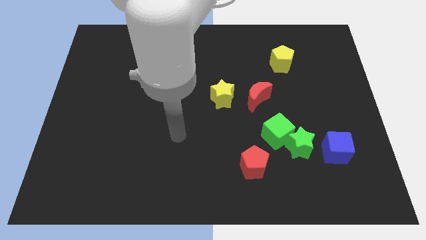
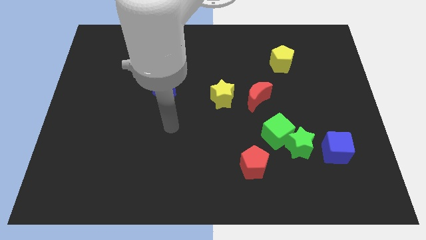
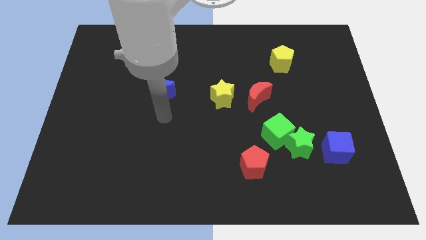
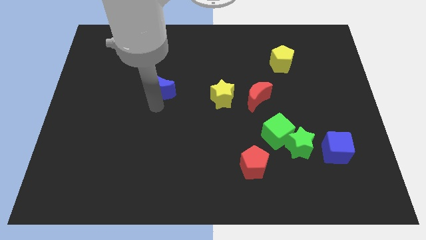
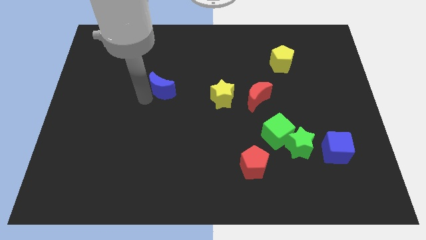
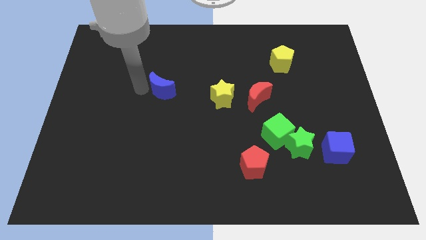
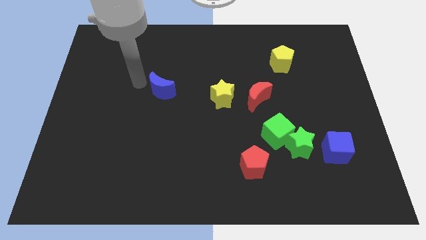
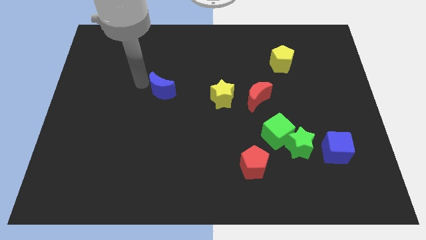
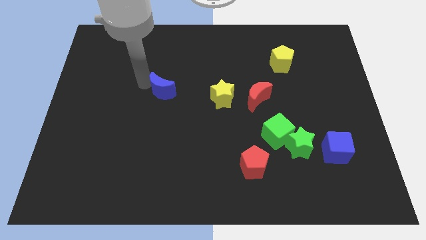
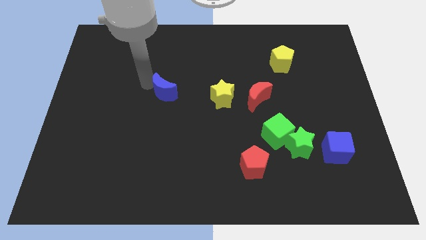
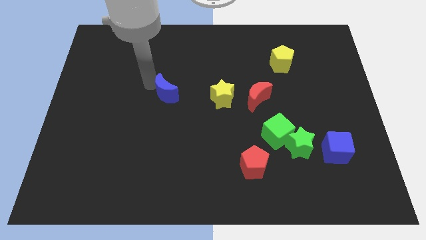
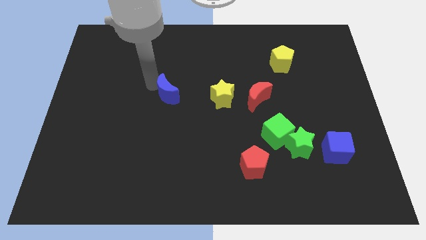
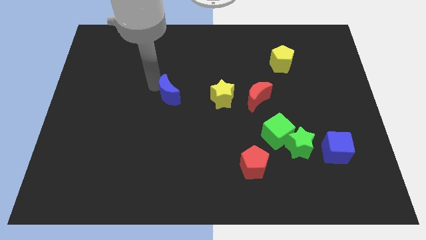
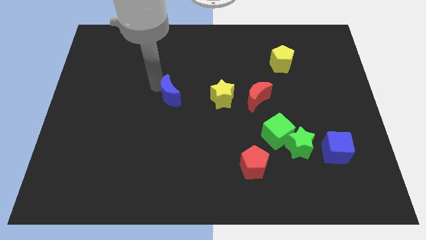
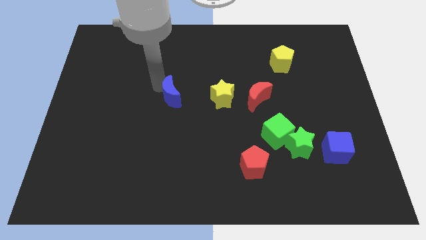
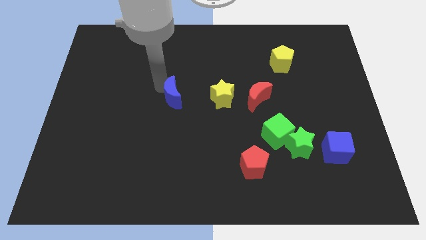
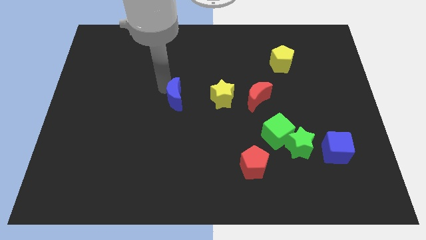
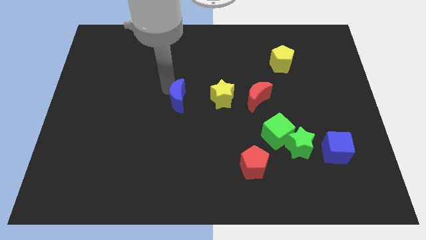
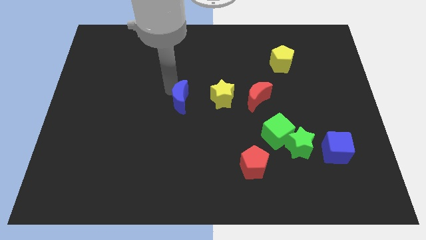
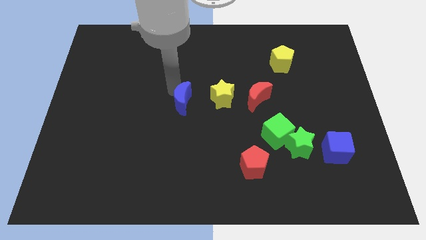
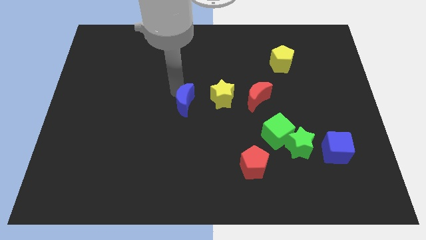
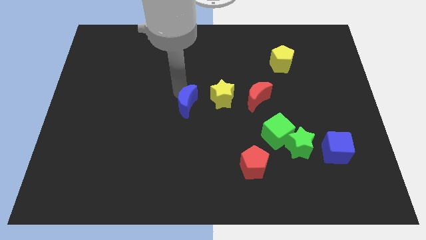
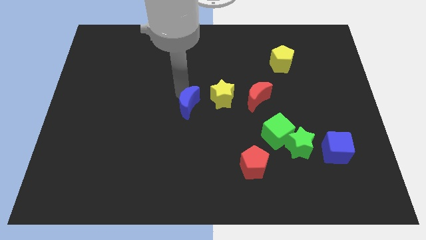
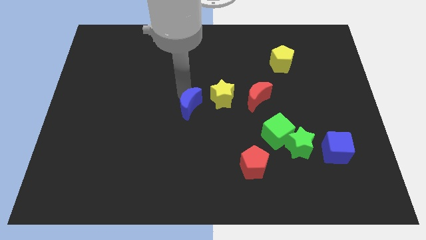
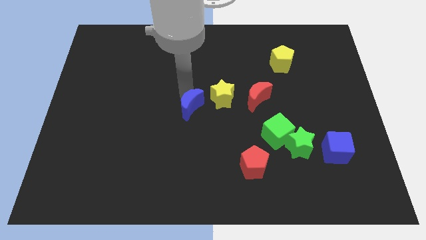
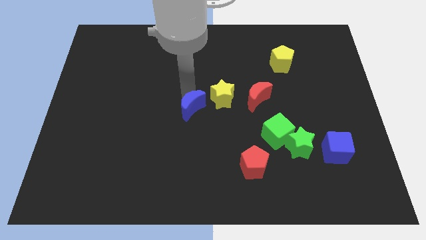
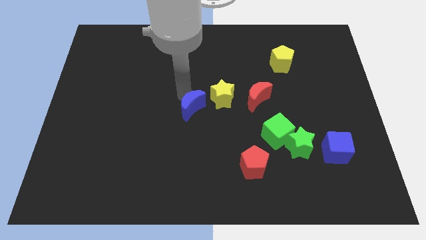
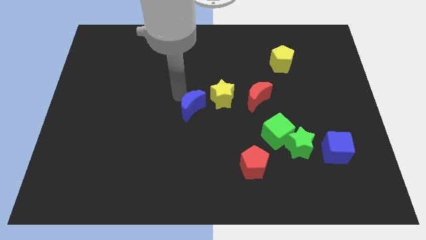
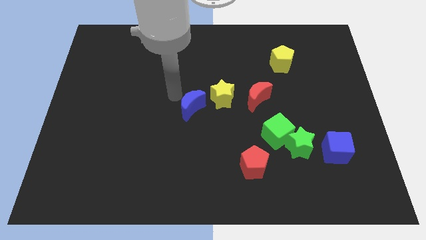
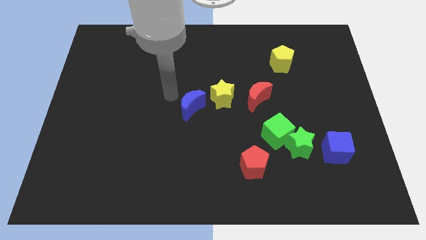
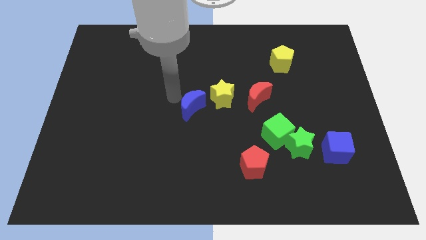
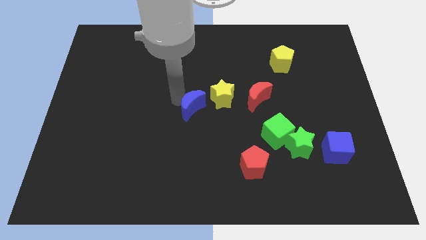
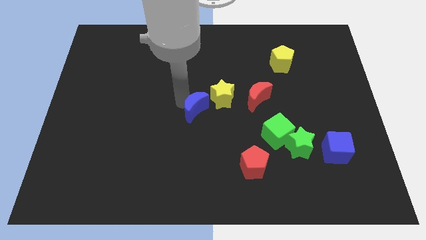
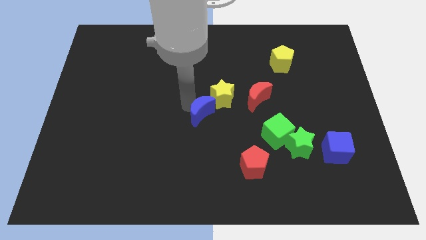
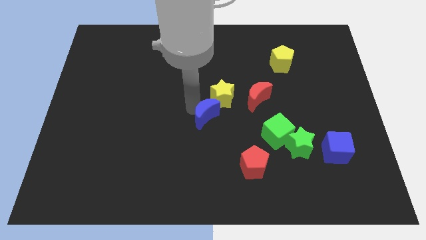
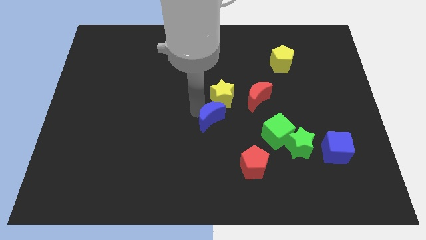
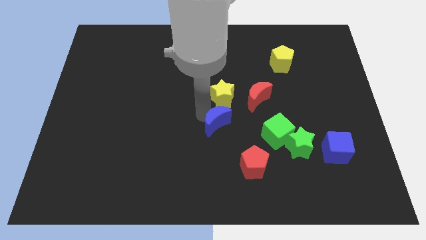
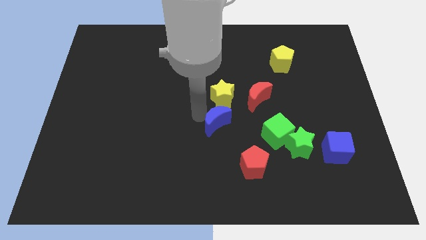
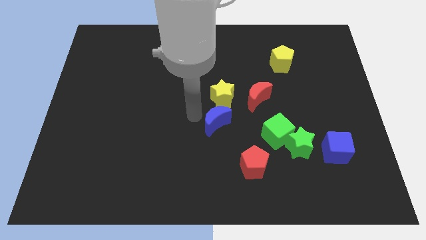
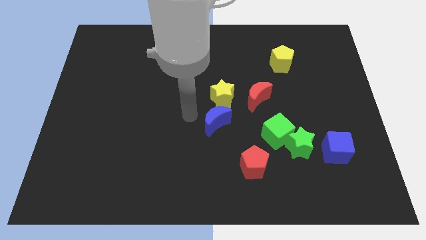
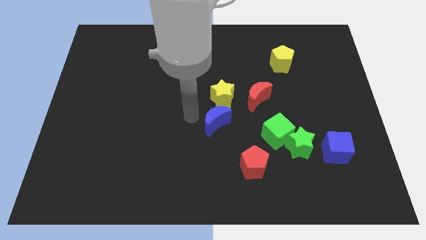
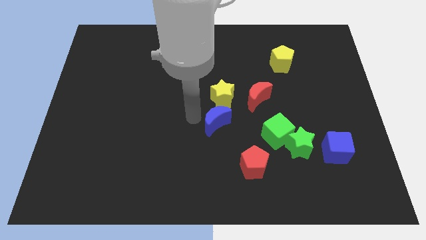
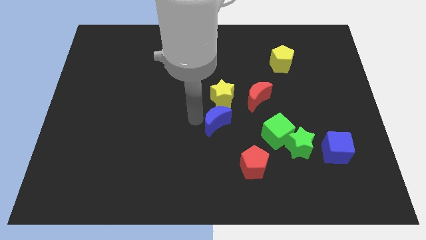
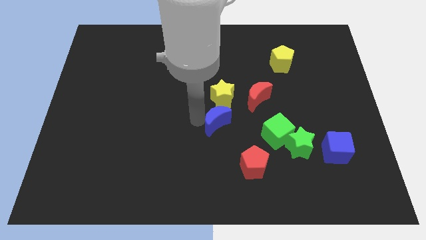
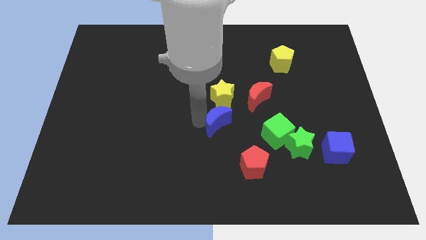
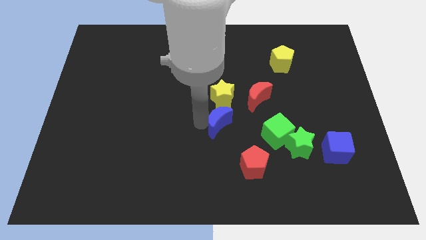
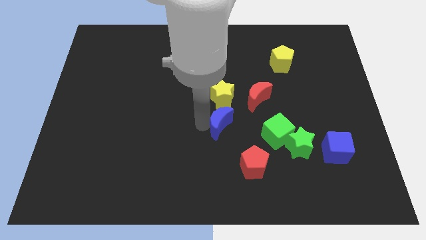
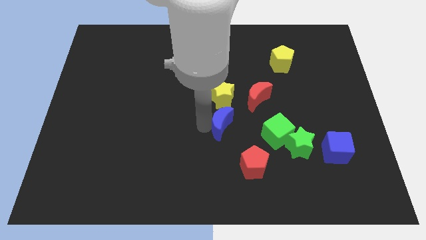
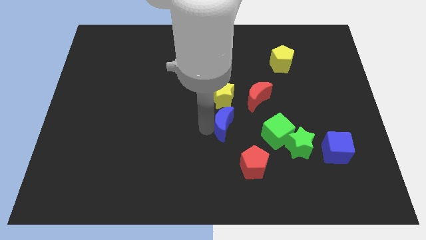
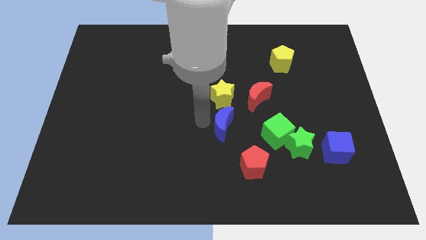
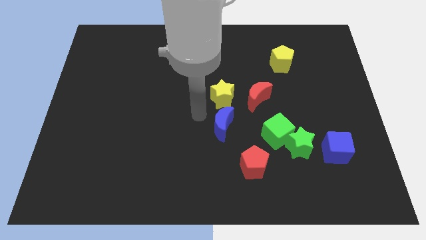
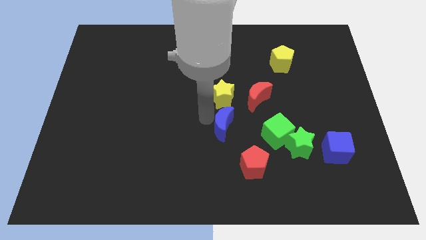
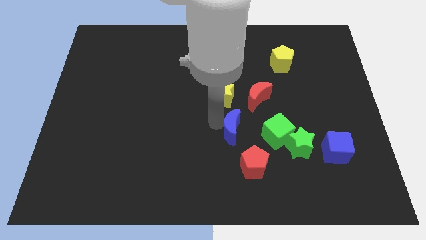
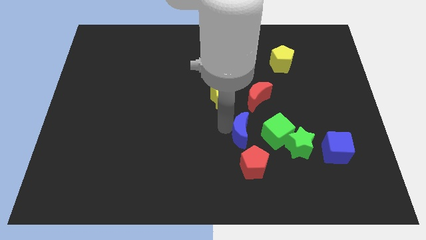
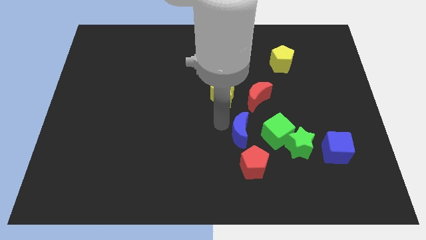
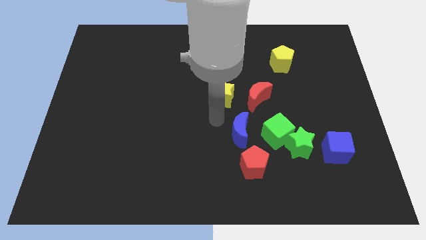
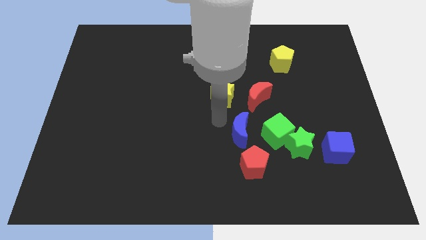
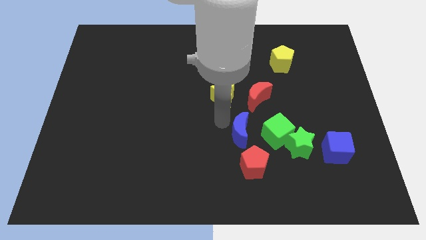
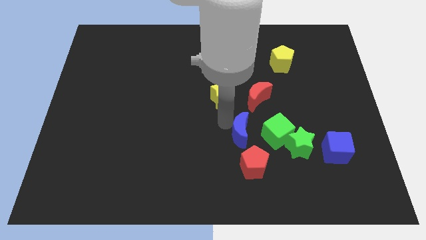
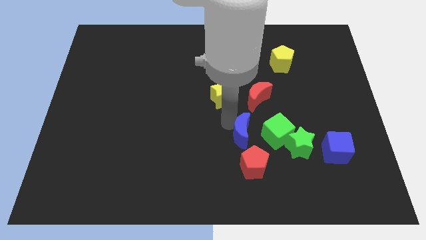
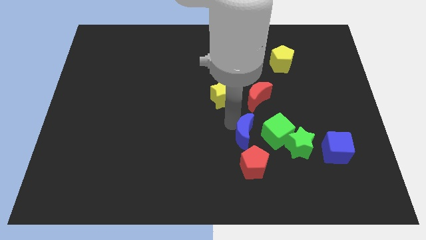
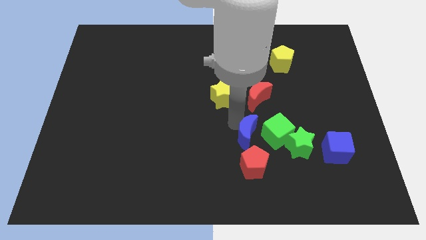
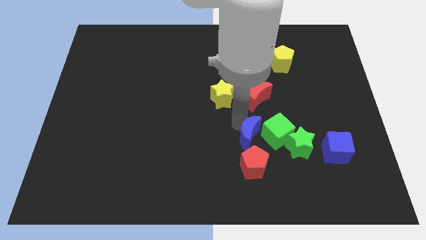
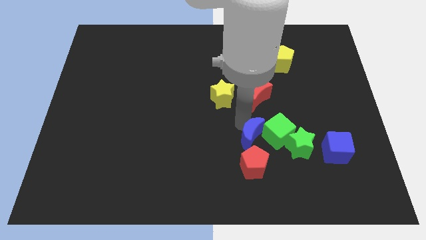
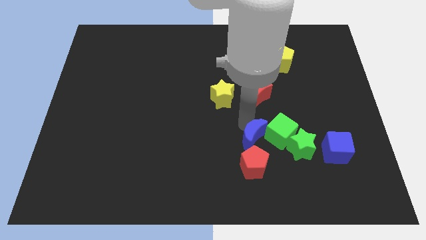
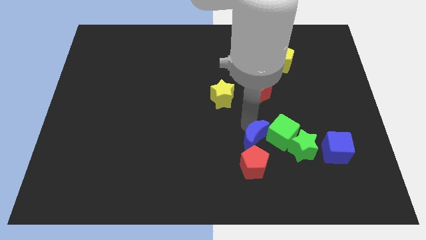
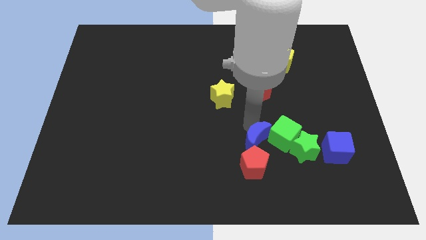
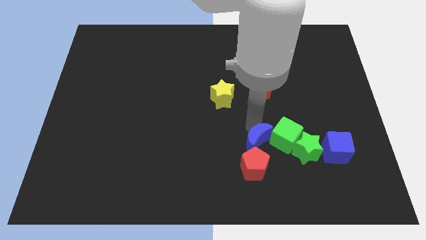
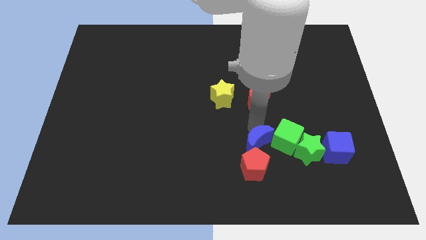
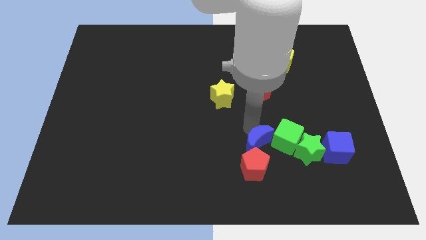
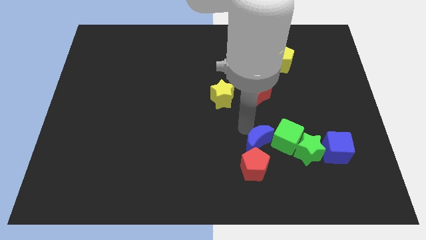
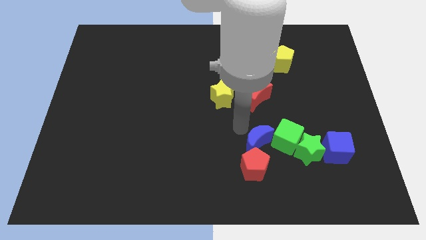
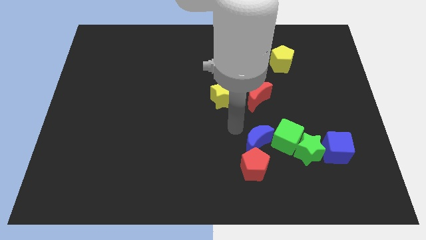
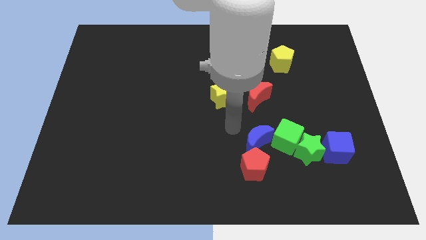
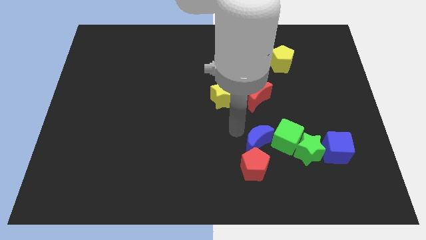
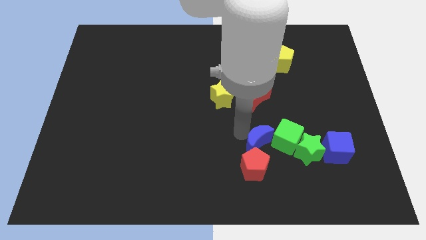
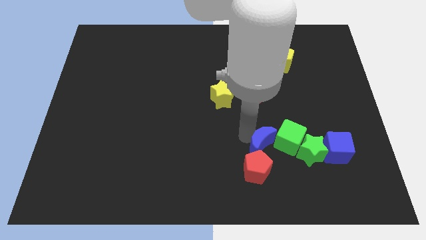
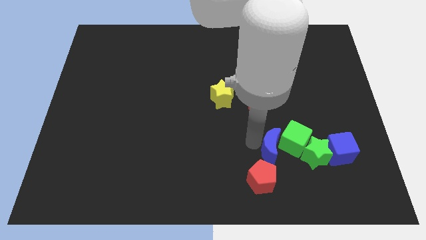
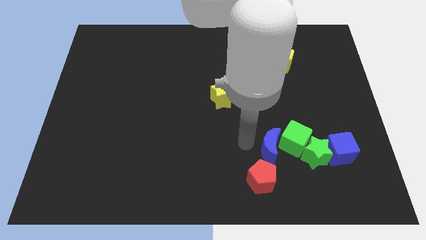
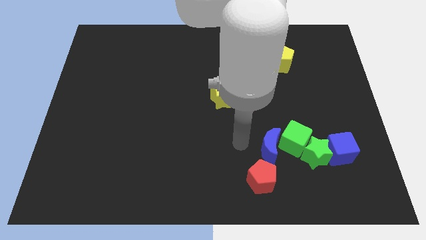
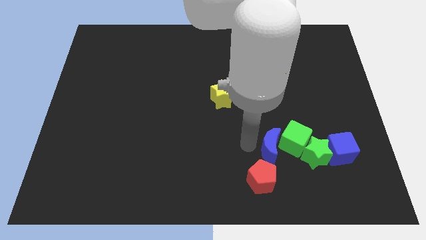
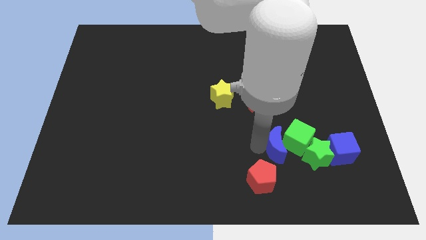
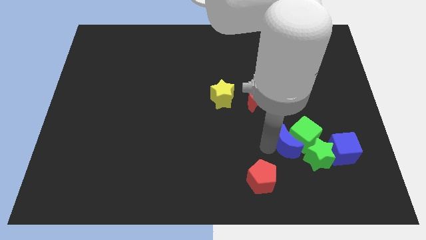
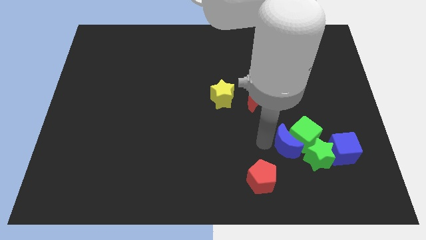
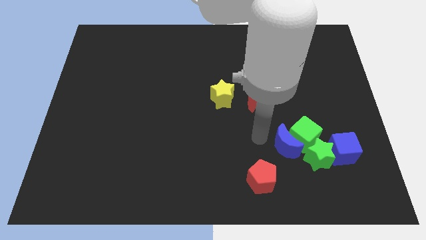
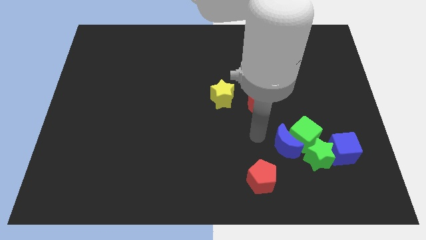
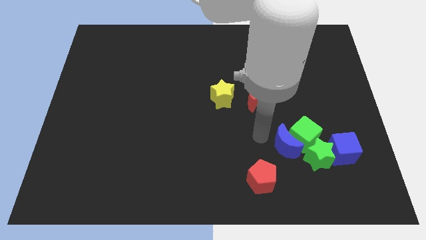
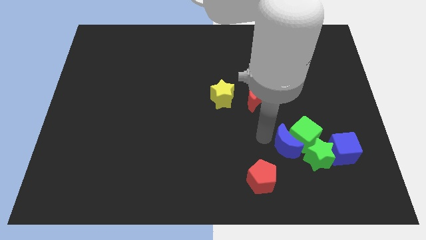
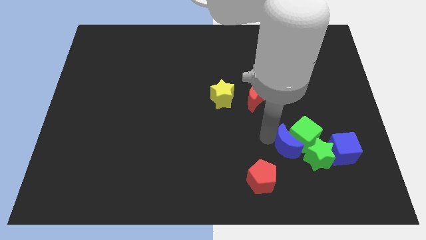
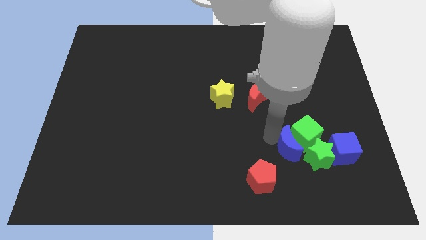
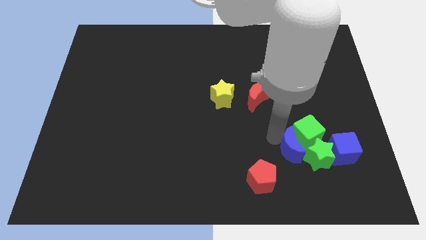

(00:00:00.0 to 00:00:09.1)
move the blue moon to the green star
